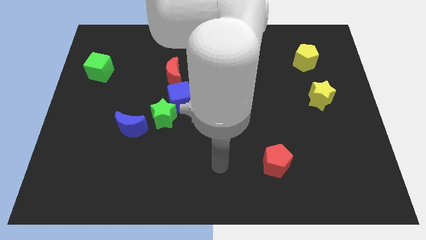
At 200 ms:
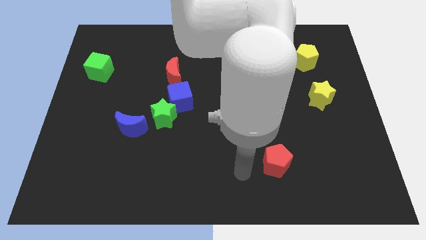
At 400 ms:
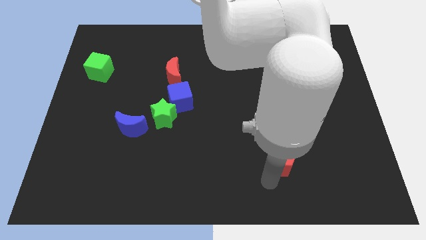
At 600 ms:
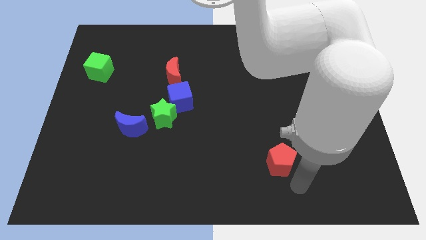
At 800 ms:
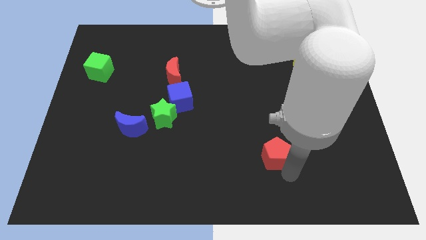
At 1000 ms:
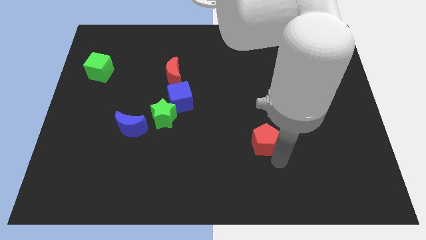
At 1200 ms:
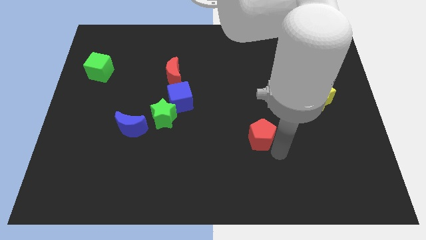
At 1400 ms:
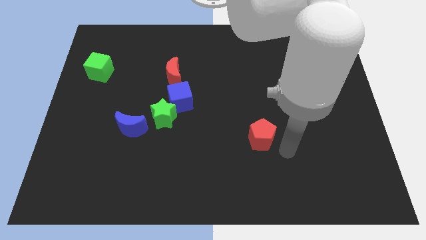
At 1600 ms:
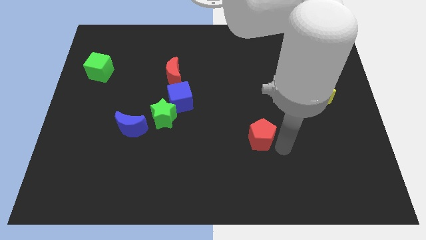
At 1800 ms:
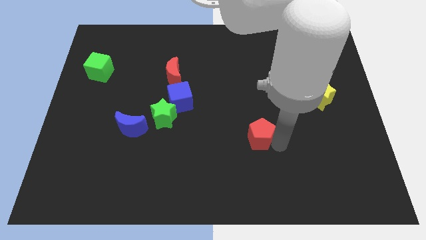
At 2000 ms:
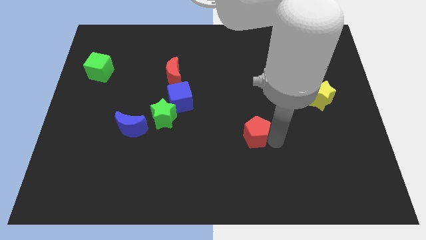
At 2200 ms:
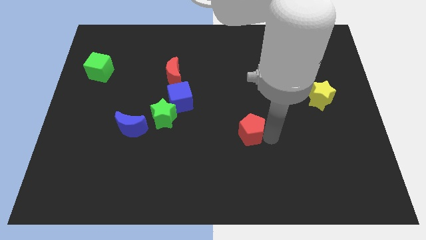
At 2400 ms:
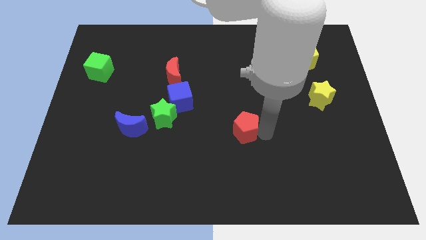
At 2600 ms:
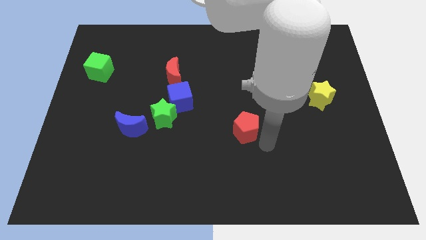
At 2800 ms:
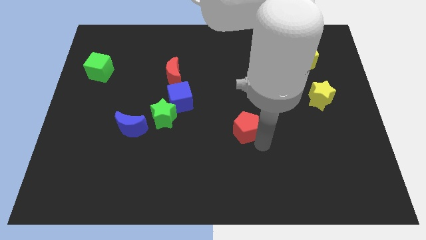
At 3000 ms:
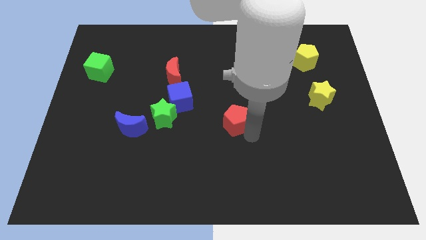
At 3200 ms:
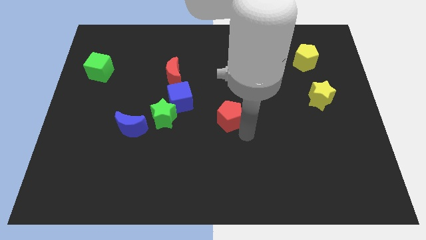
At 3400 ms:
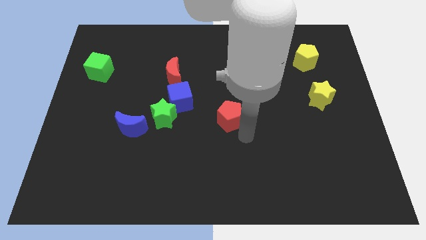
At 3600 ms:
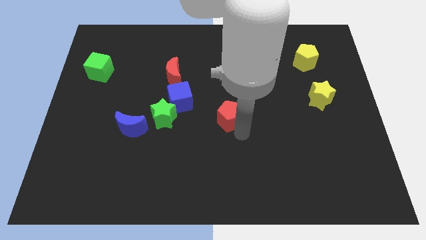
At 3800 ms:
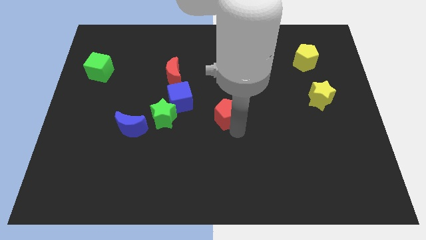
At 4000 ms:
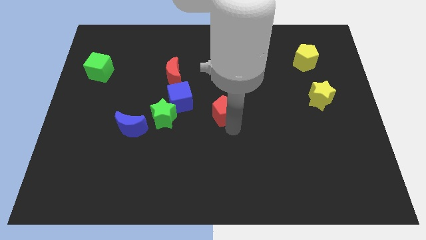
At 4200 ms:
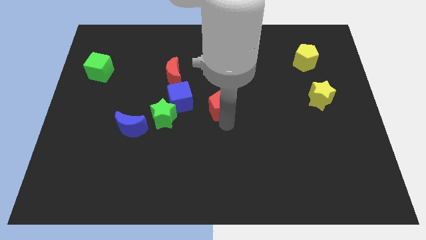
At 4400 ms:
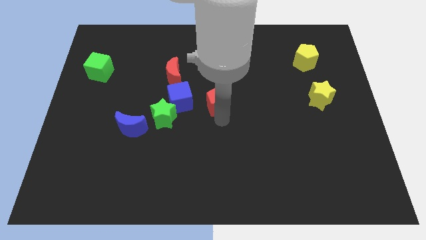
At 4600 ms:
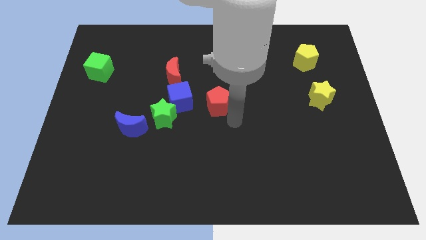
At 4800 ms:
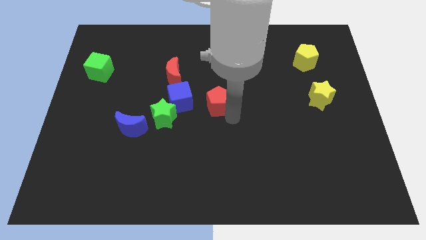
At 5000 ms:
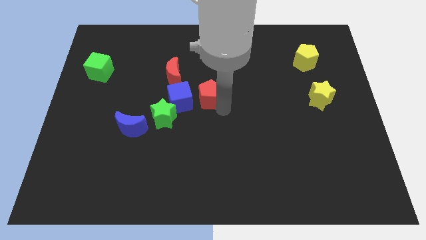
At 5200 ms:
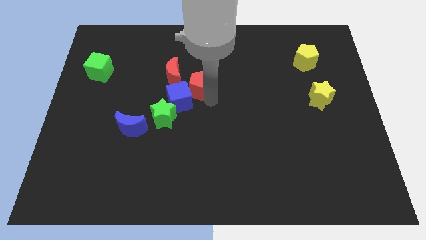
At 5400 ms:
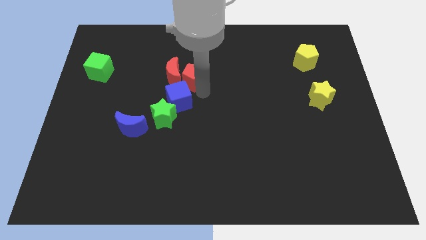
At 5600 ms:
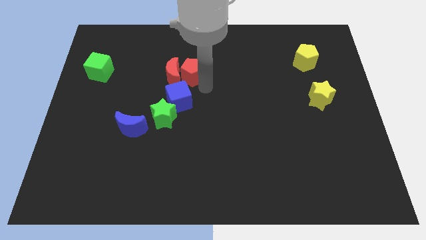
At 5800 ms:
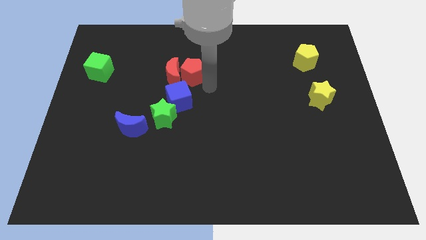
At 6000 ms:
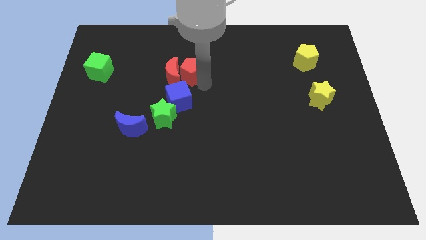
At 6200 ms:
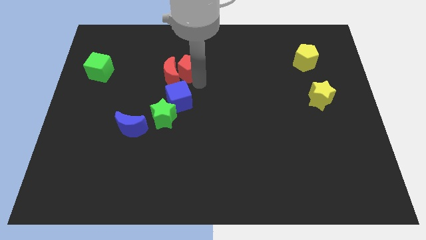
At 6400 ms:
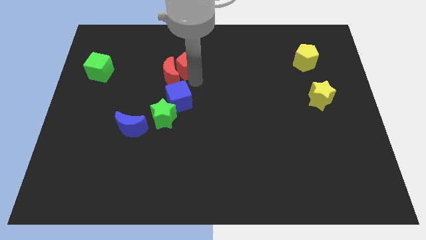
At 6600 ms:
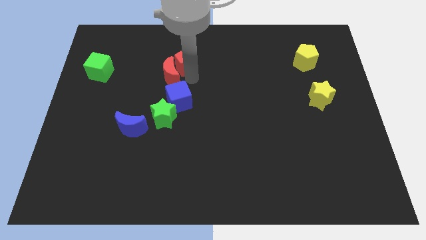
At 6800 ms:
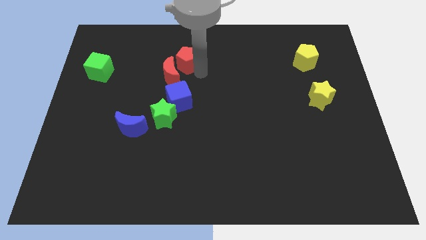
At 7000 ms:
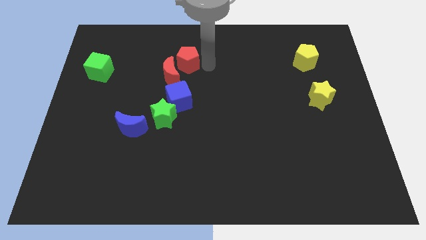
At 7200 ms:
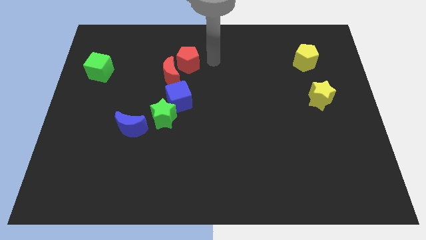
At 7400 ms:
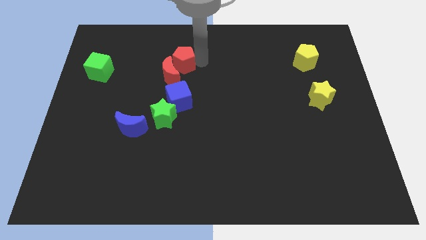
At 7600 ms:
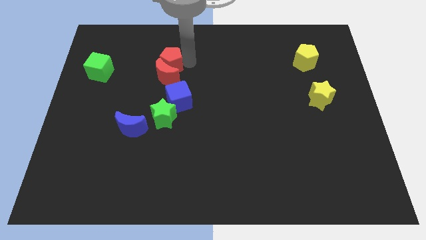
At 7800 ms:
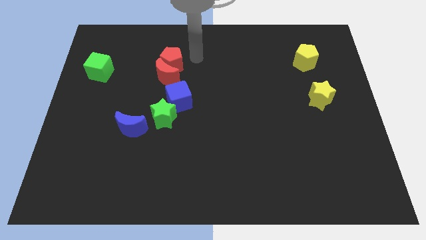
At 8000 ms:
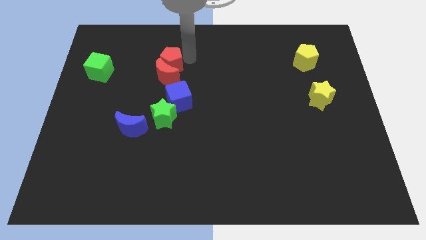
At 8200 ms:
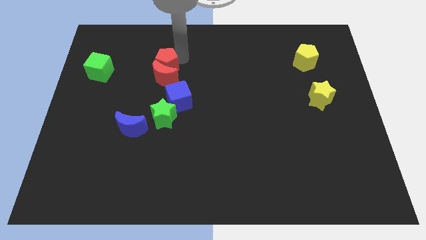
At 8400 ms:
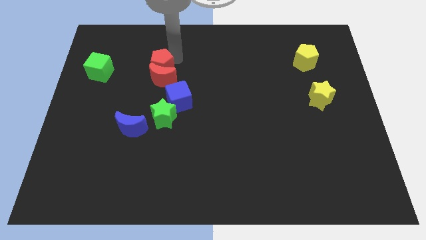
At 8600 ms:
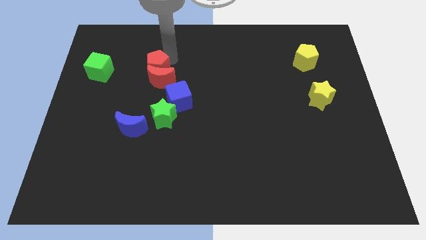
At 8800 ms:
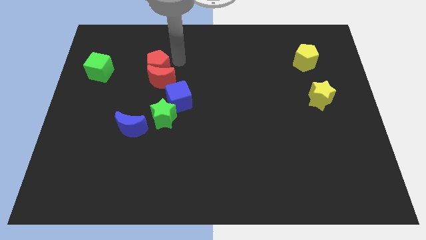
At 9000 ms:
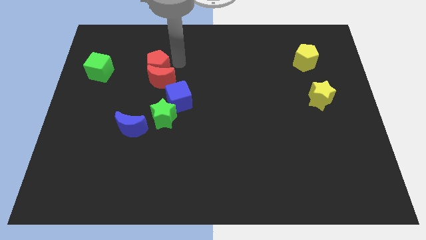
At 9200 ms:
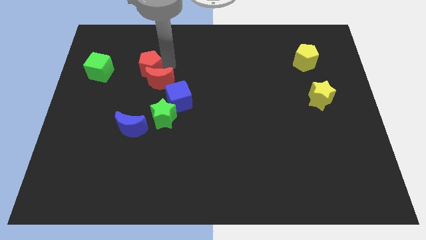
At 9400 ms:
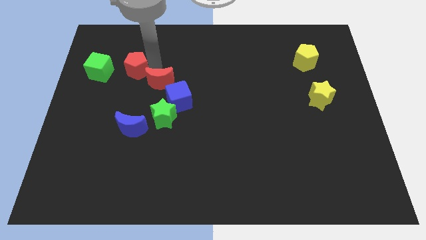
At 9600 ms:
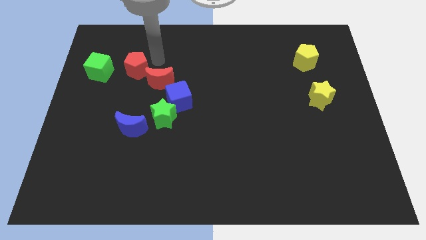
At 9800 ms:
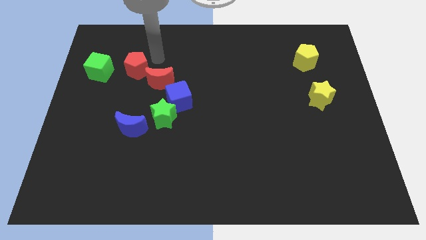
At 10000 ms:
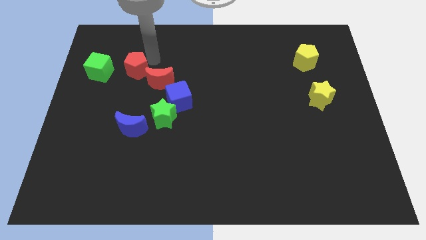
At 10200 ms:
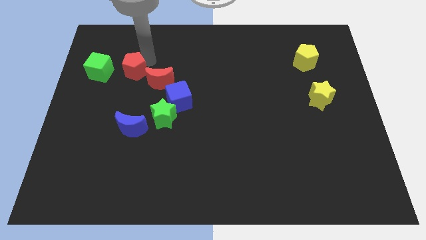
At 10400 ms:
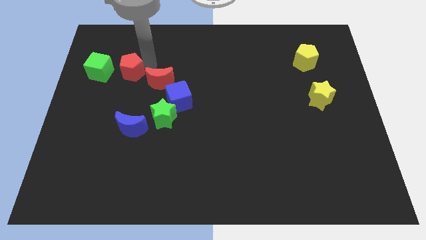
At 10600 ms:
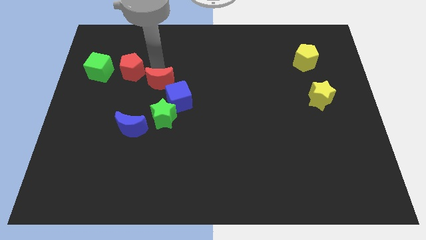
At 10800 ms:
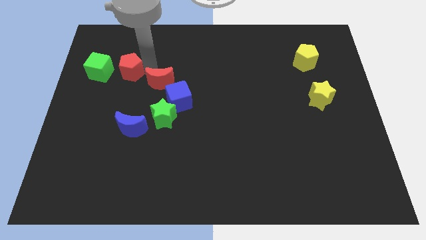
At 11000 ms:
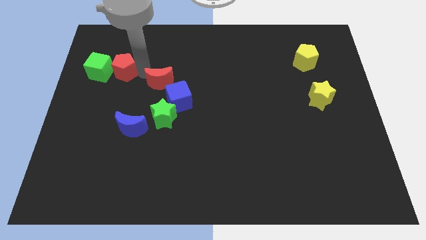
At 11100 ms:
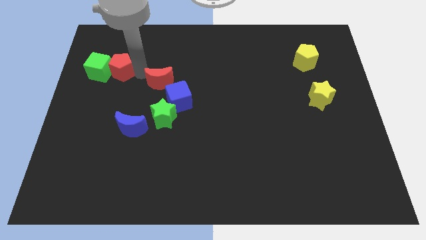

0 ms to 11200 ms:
put the red pentagon close to the green cube

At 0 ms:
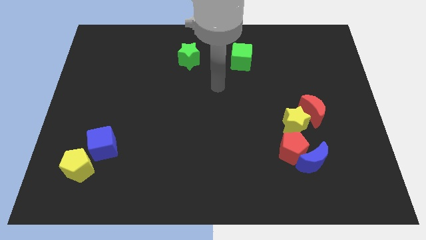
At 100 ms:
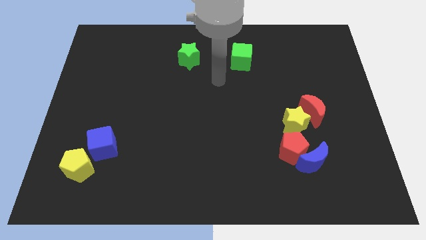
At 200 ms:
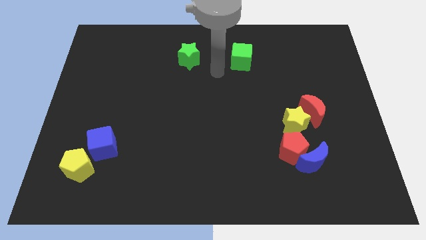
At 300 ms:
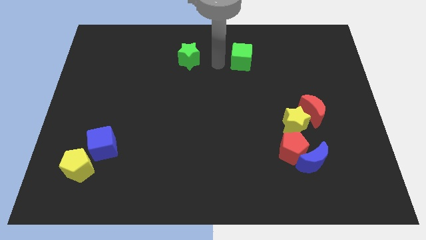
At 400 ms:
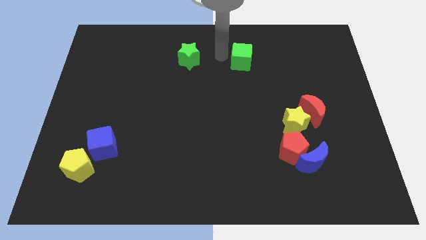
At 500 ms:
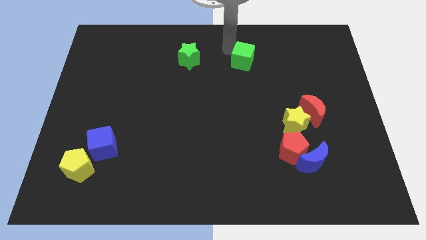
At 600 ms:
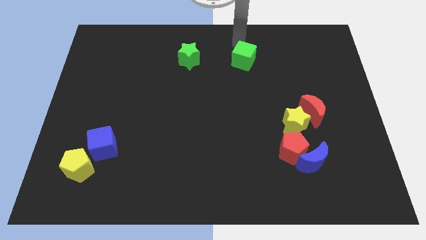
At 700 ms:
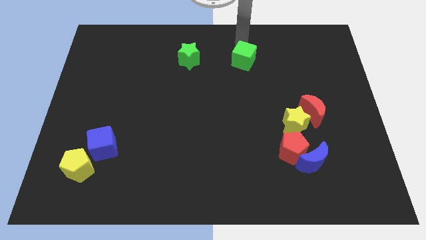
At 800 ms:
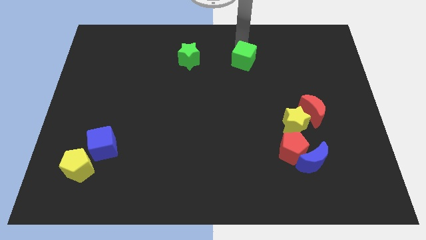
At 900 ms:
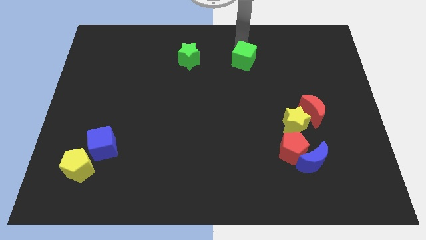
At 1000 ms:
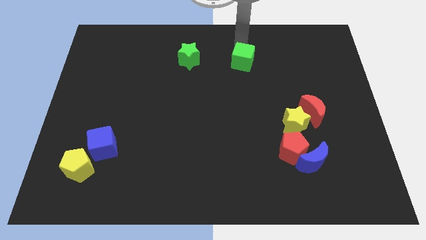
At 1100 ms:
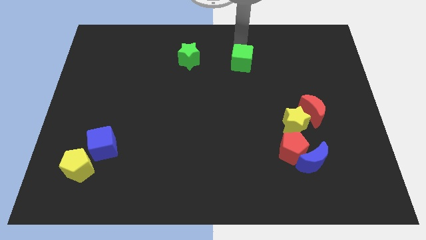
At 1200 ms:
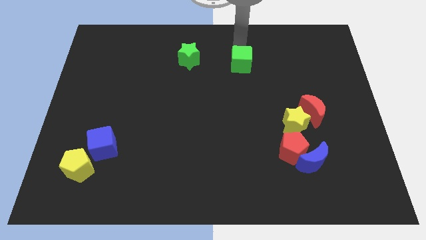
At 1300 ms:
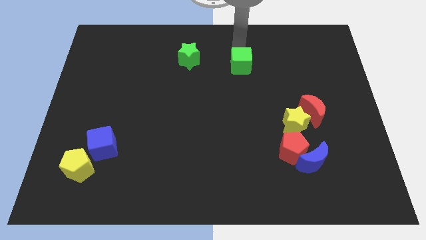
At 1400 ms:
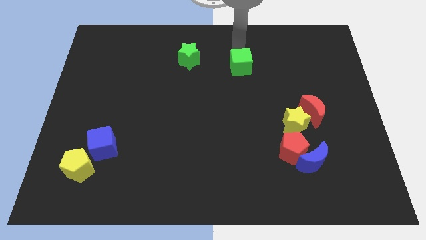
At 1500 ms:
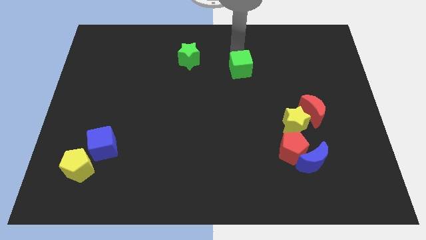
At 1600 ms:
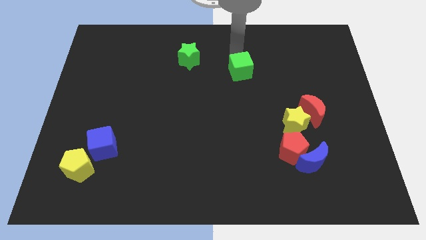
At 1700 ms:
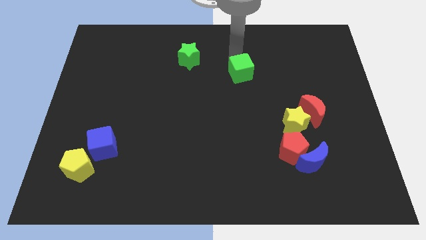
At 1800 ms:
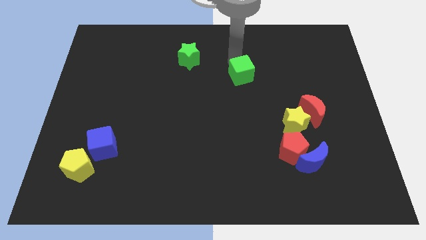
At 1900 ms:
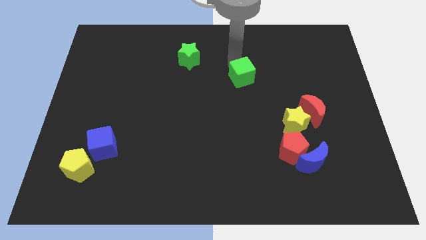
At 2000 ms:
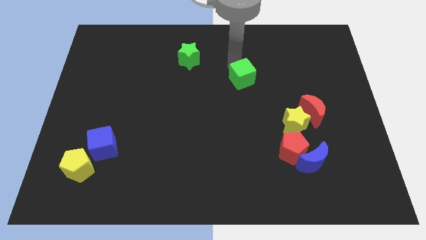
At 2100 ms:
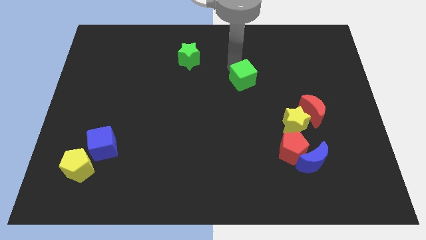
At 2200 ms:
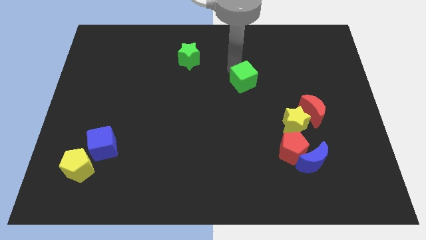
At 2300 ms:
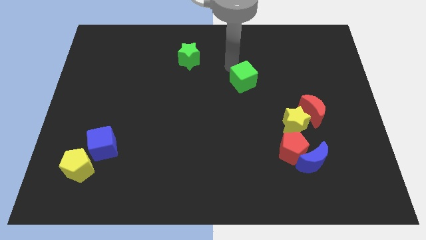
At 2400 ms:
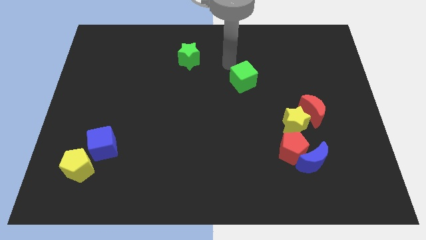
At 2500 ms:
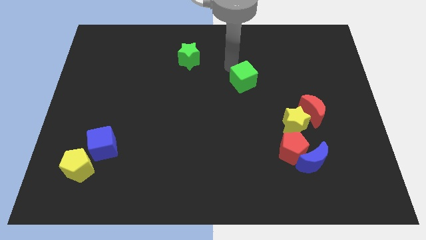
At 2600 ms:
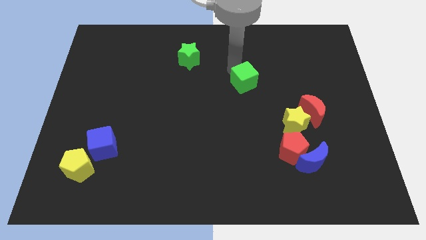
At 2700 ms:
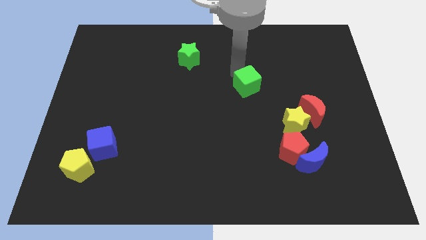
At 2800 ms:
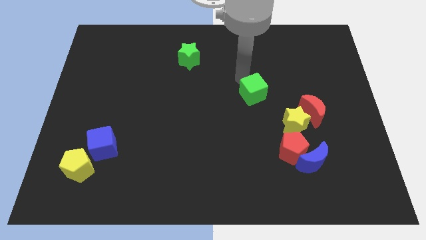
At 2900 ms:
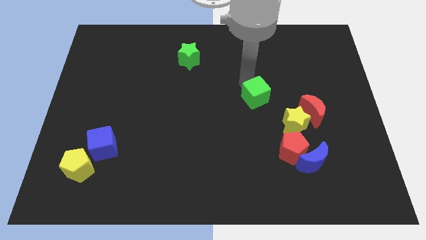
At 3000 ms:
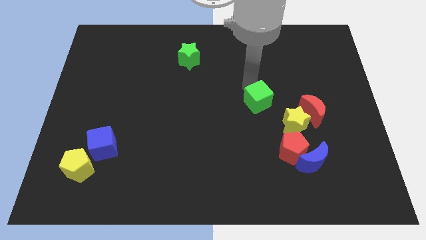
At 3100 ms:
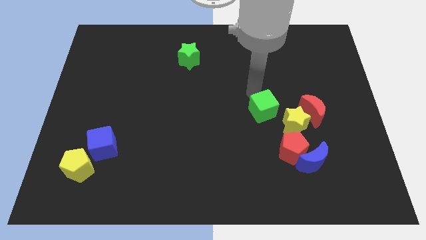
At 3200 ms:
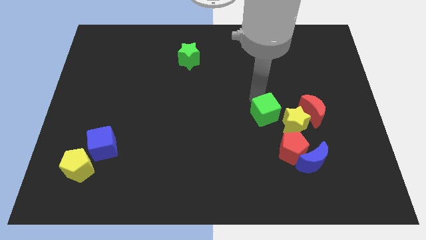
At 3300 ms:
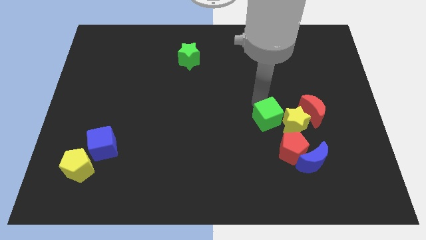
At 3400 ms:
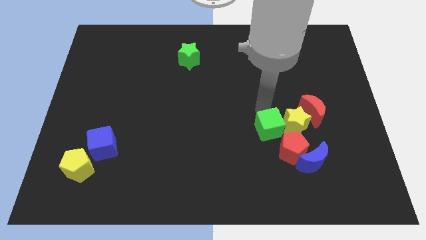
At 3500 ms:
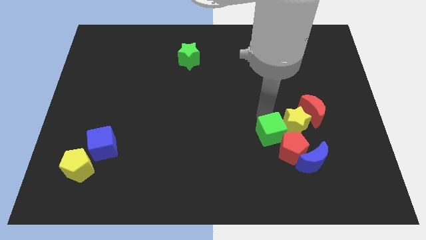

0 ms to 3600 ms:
slide the green cube next to the red pentagon
